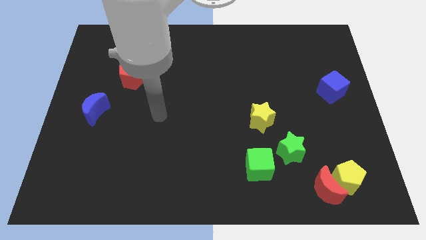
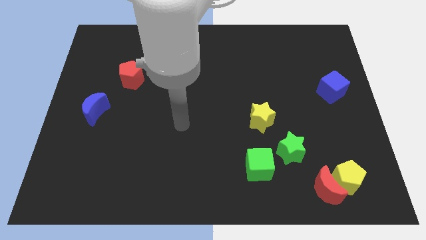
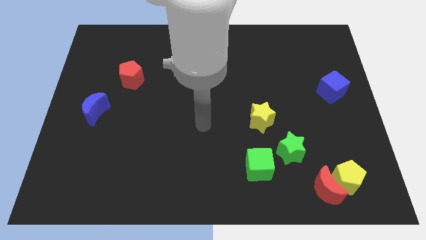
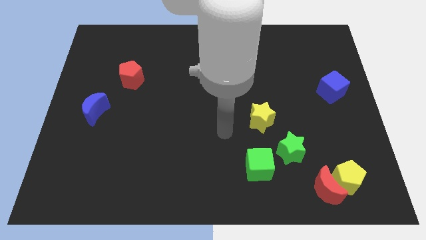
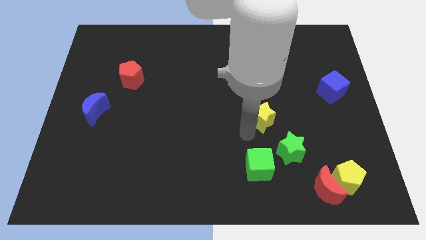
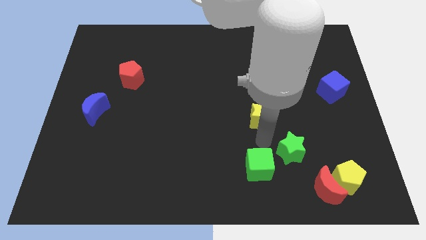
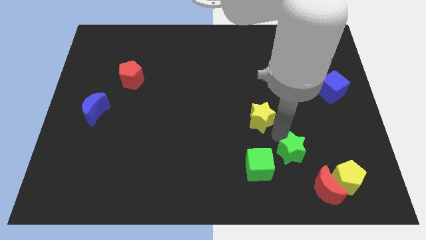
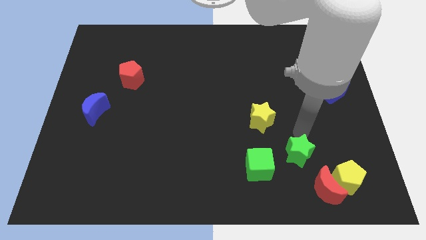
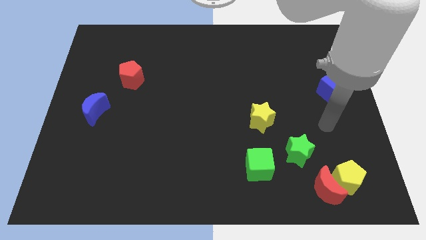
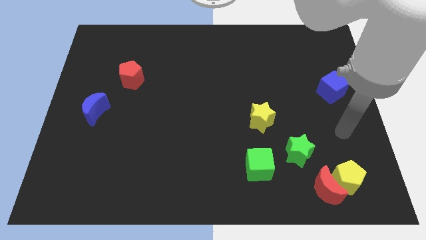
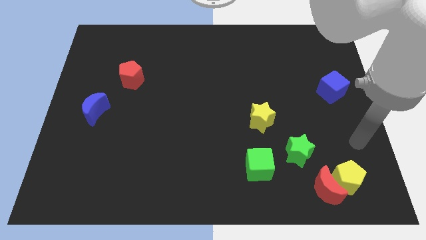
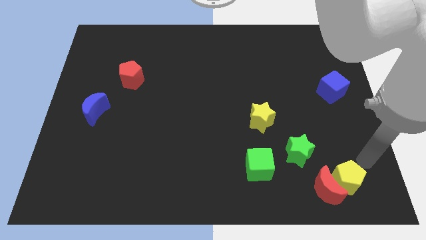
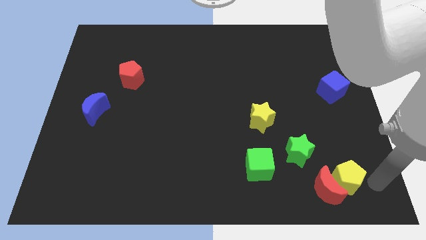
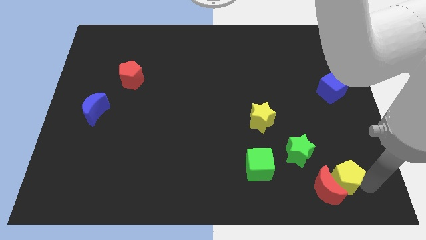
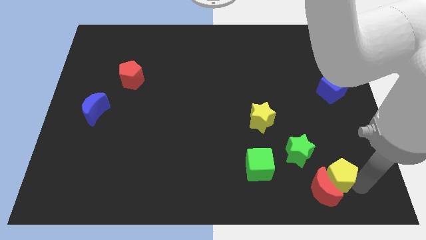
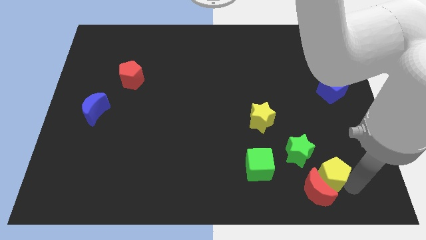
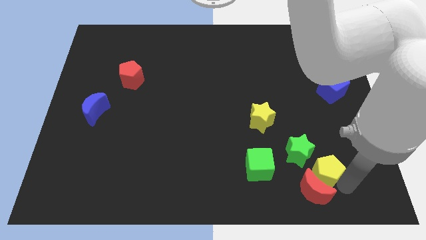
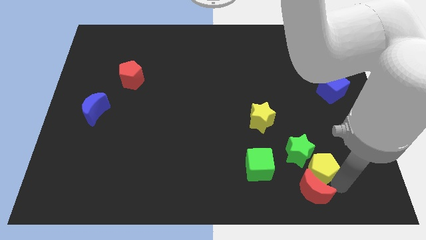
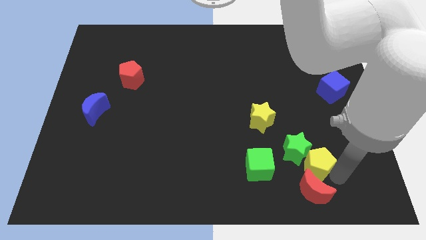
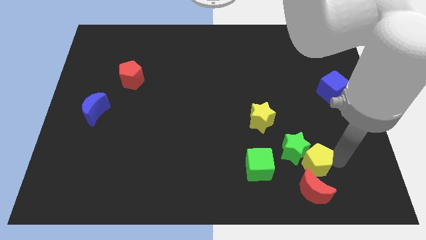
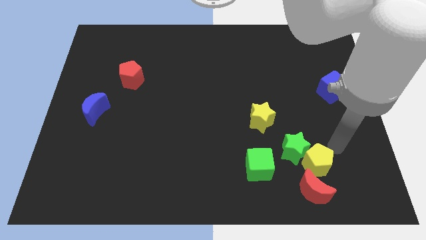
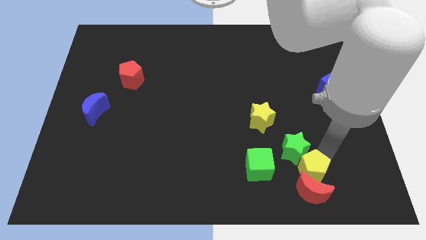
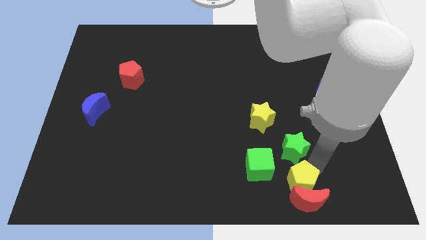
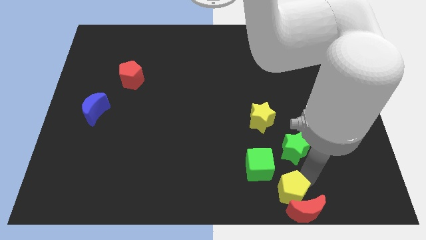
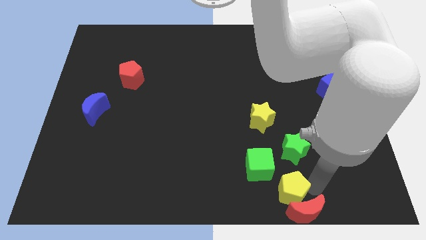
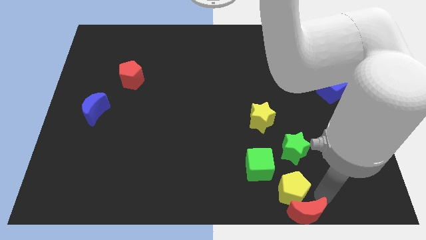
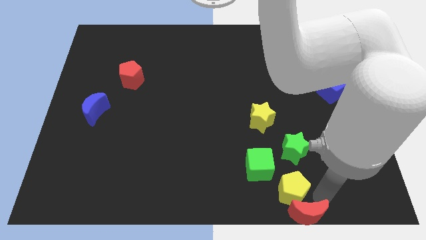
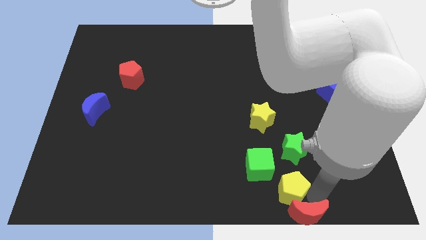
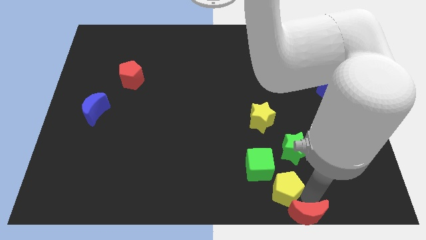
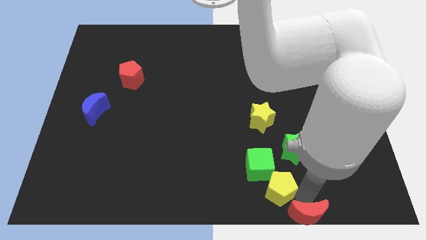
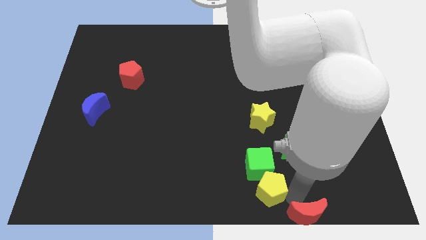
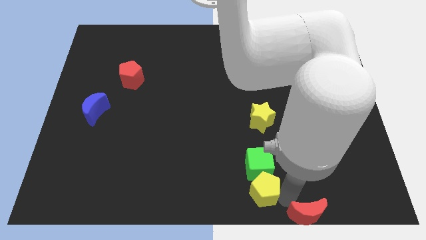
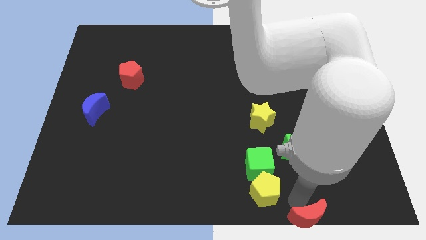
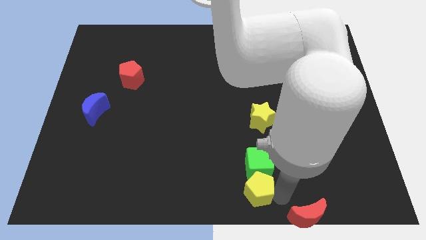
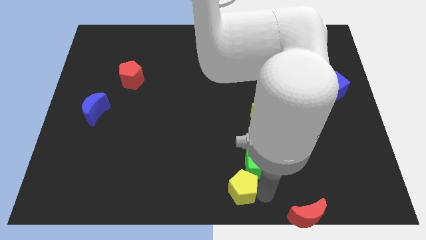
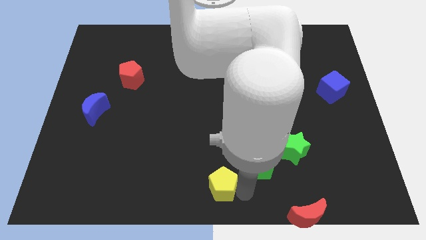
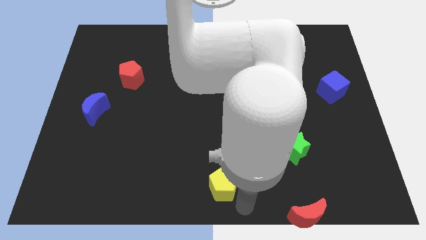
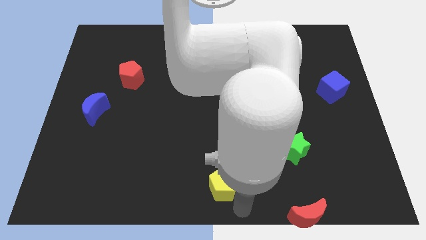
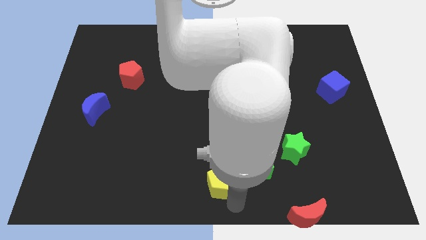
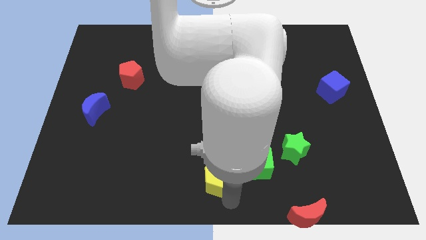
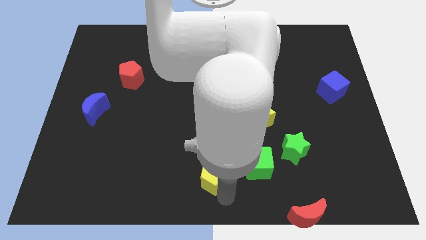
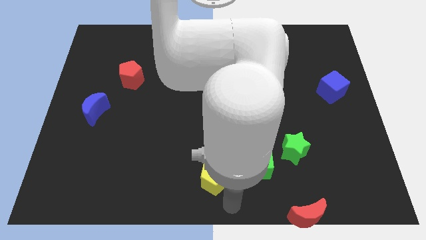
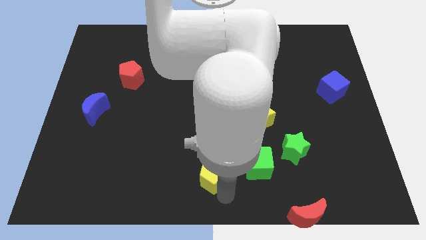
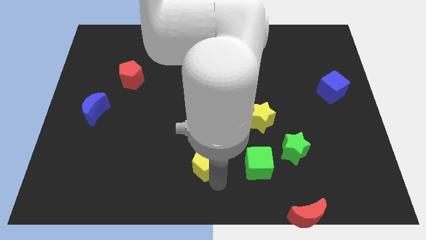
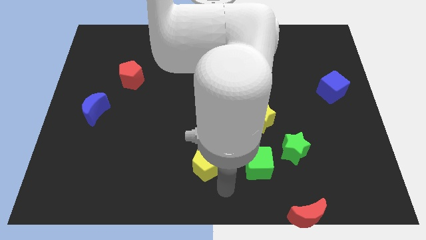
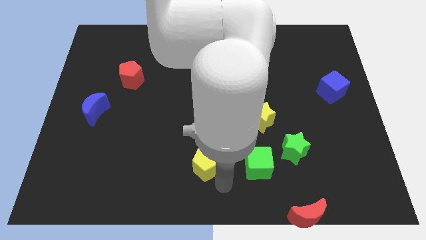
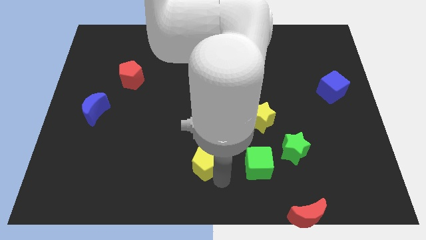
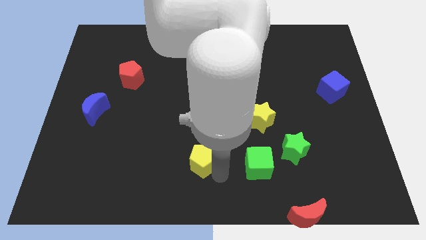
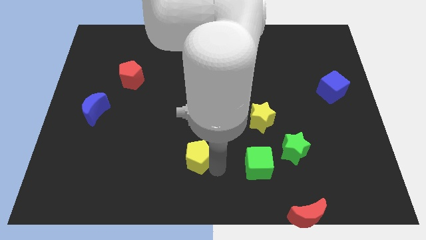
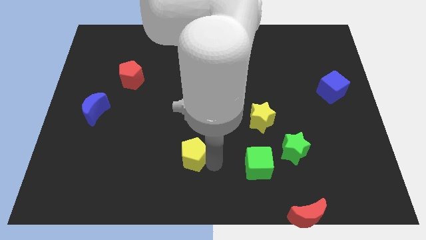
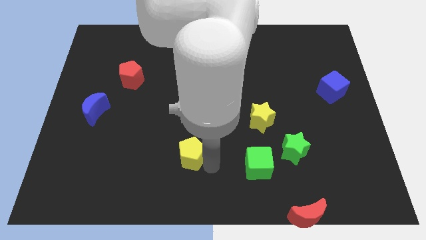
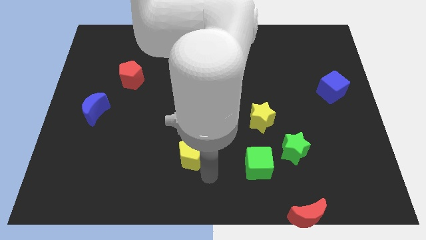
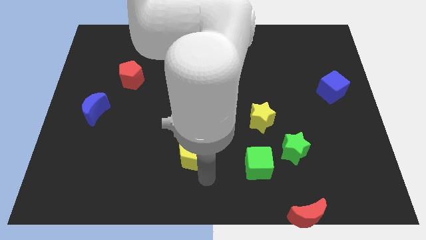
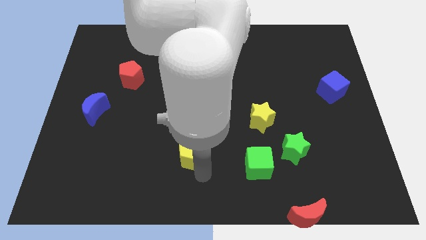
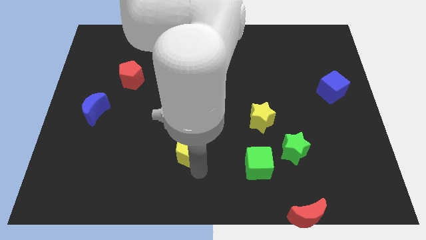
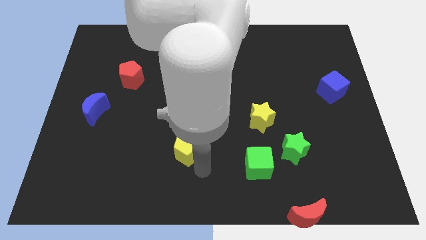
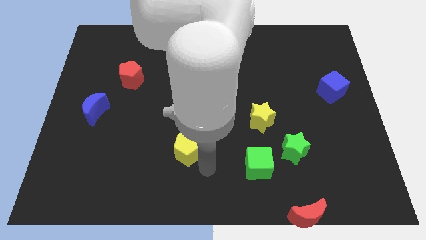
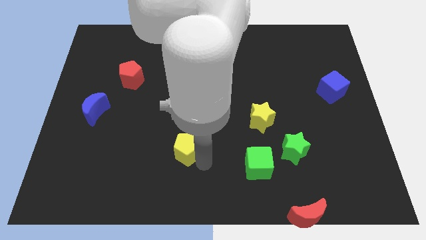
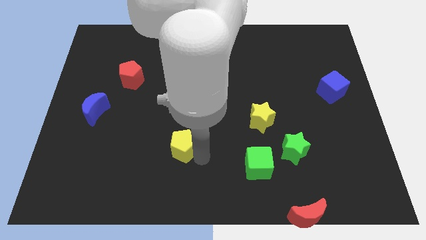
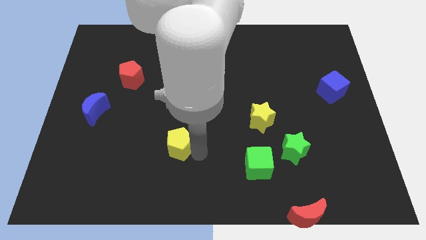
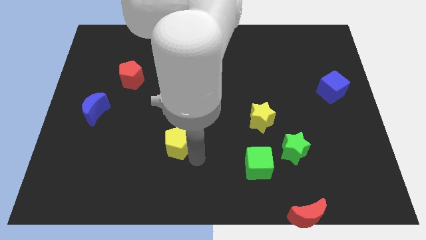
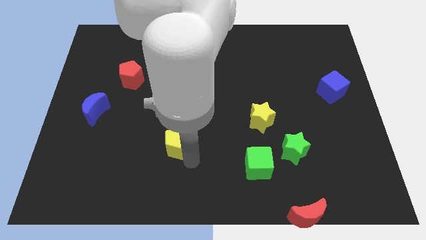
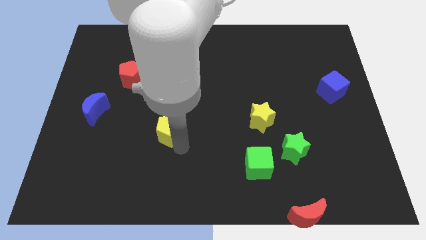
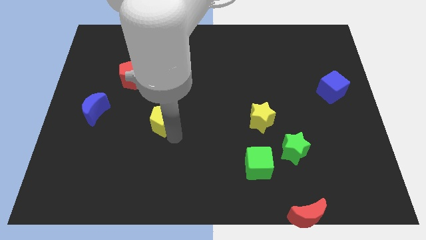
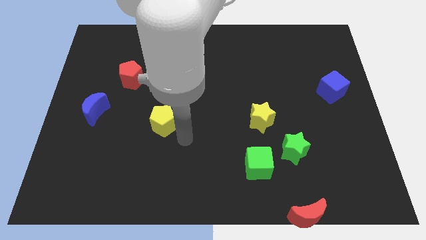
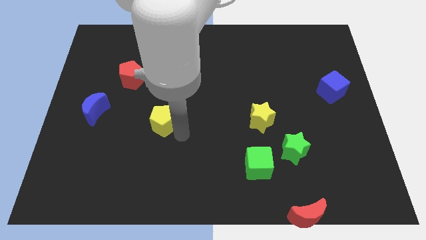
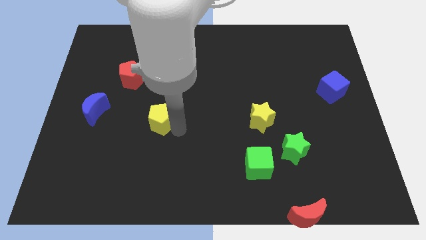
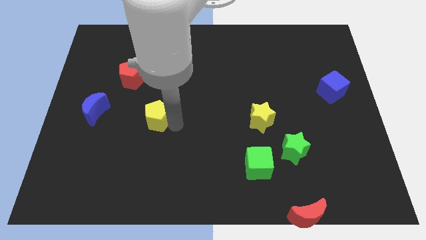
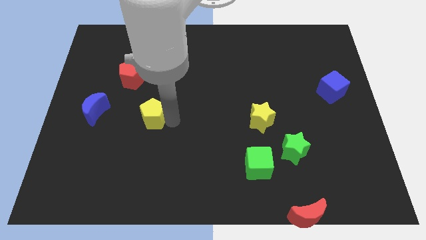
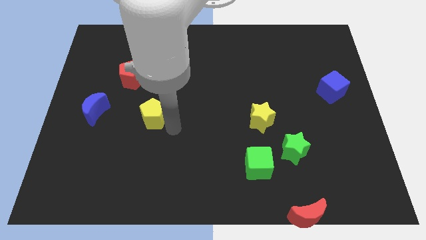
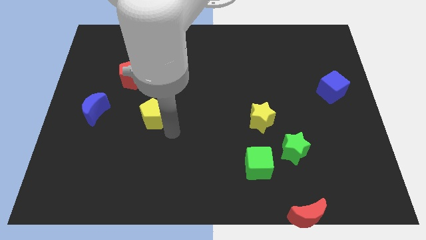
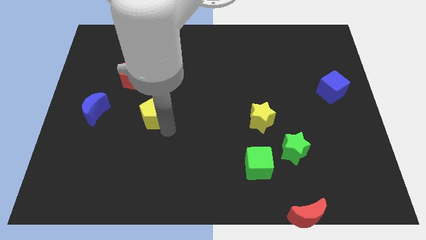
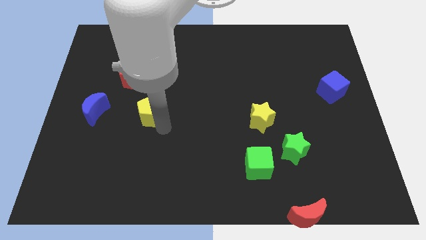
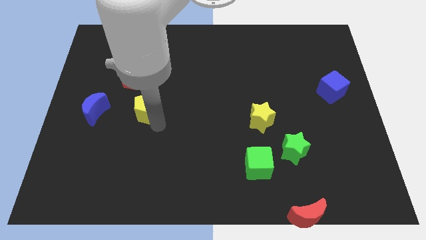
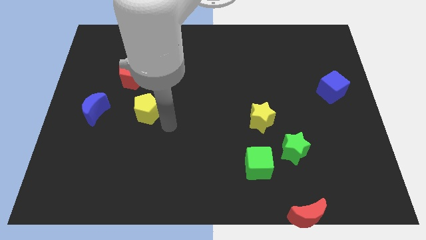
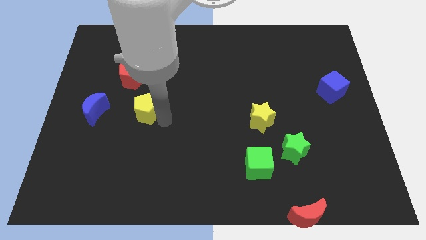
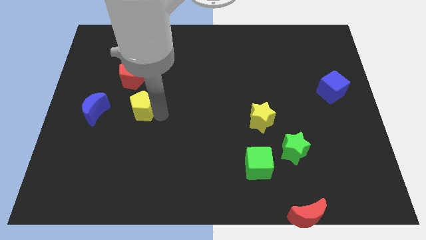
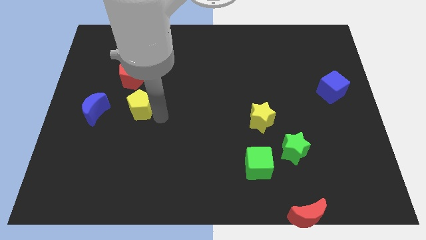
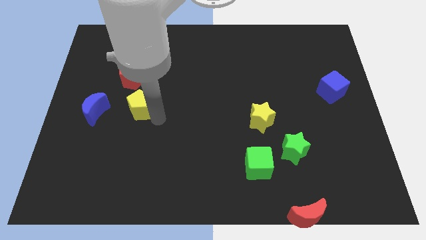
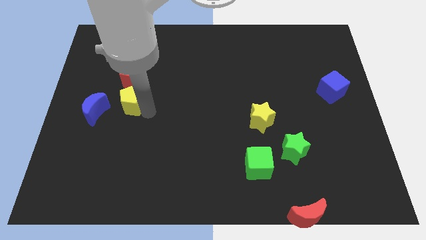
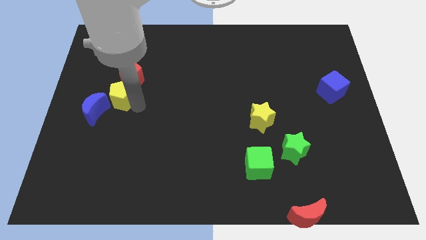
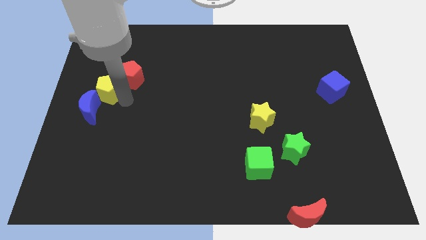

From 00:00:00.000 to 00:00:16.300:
slide the yellow pentagon to the top of the blue moon
